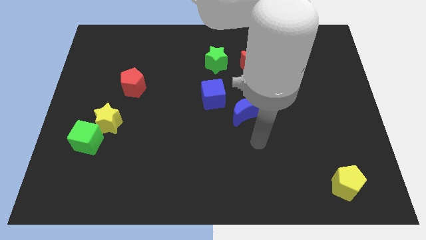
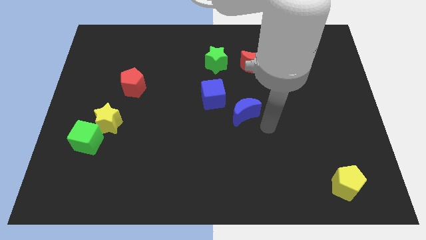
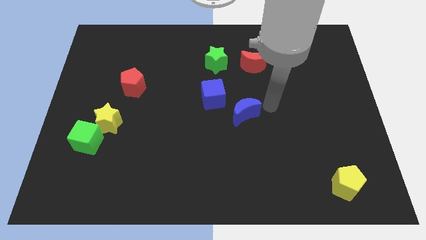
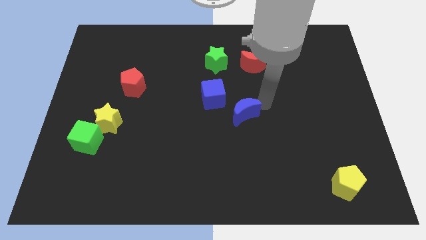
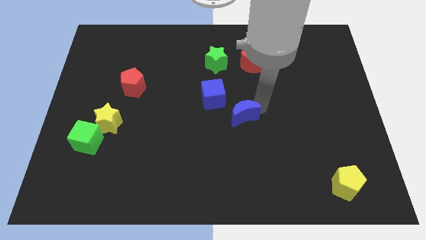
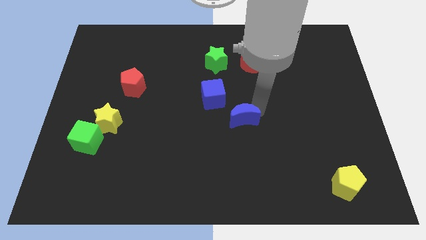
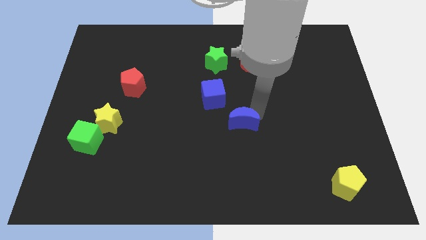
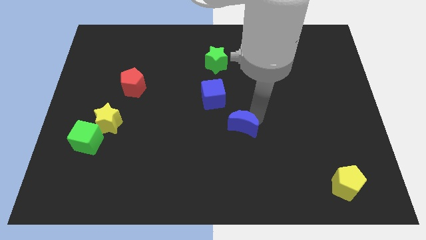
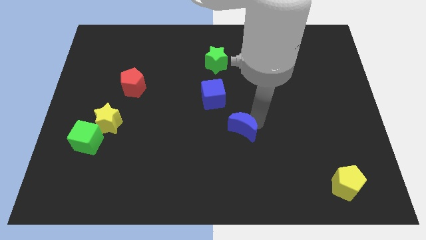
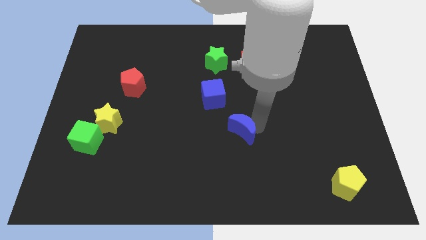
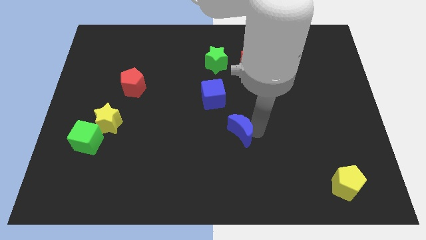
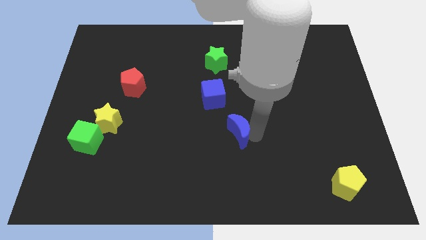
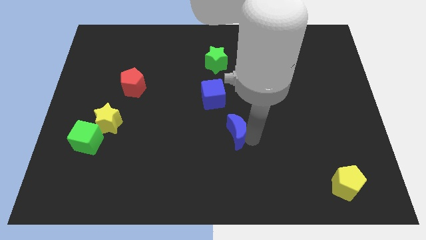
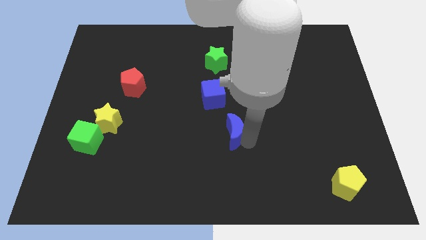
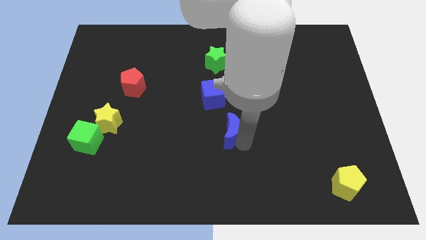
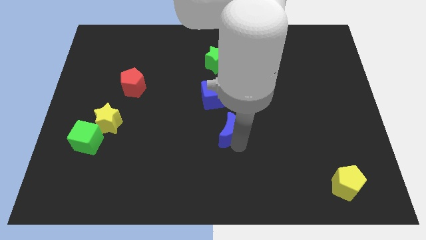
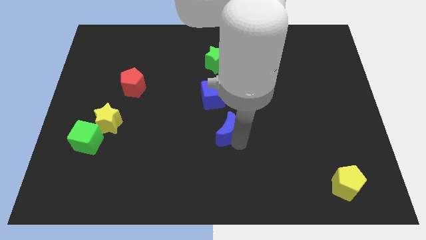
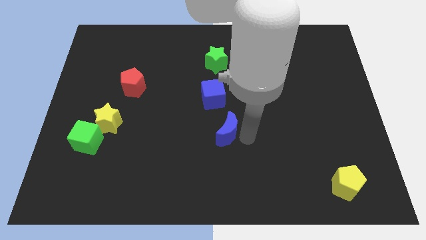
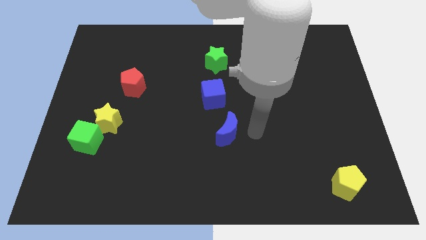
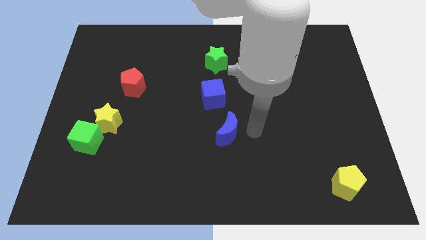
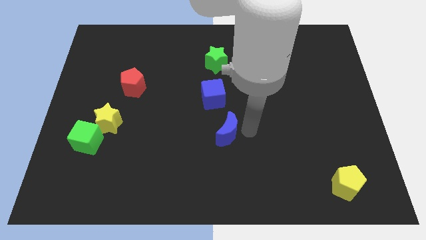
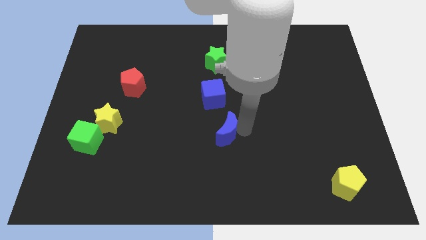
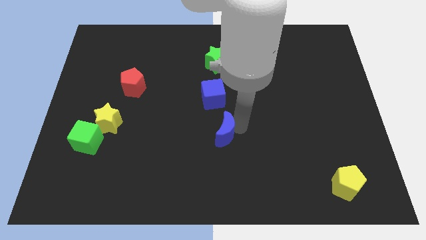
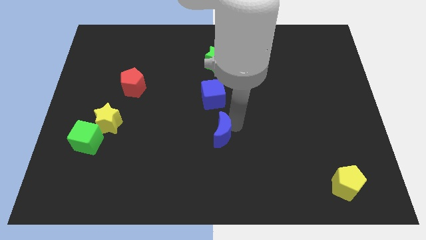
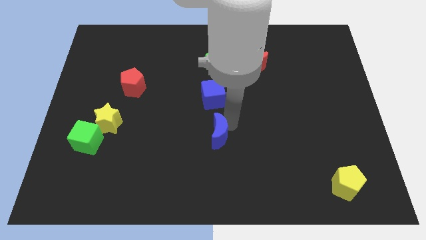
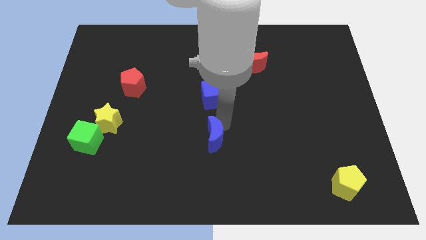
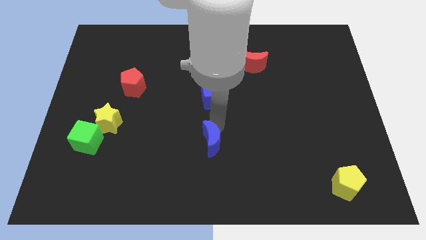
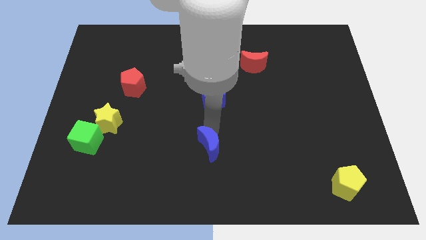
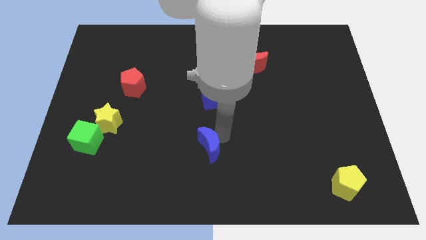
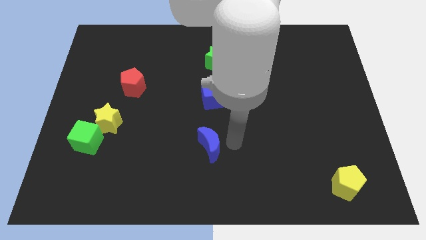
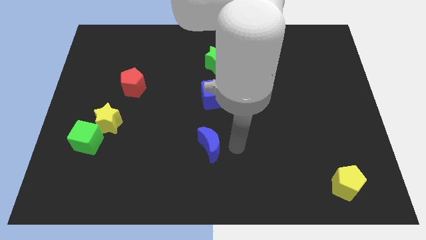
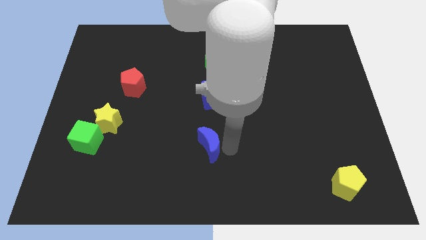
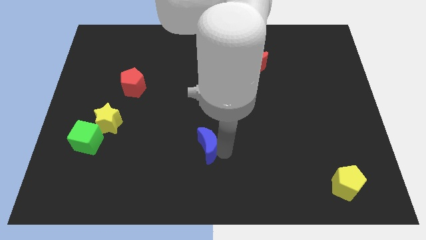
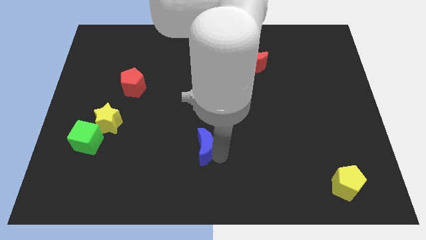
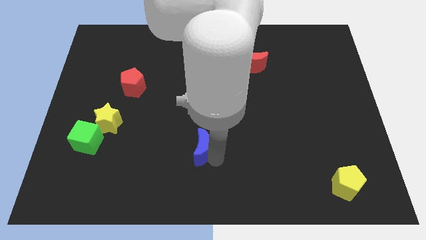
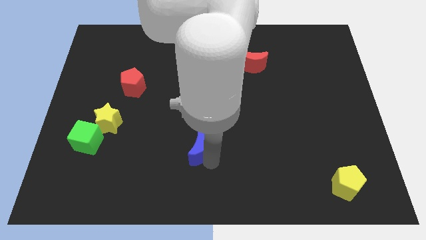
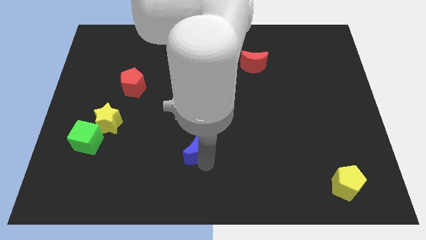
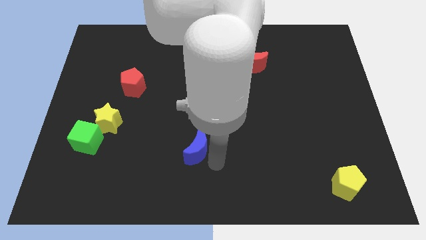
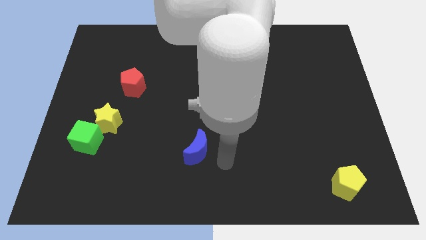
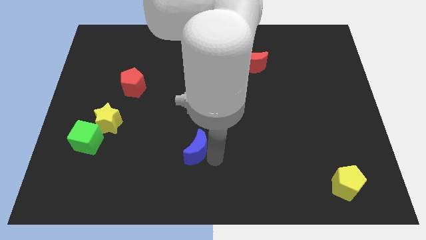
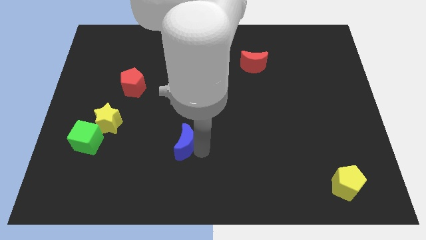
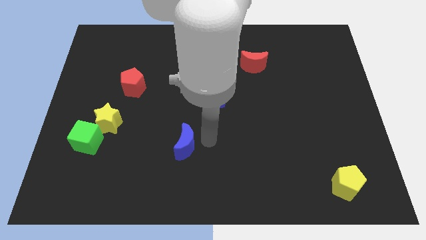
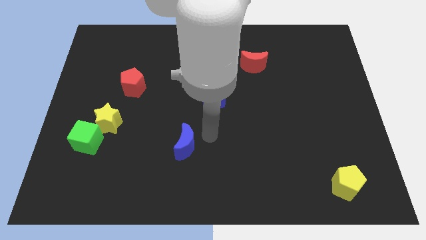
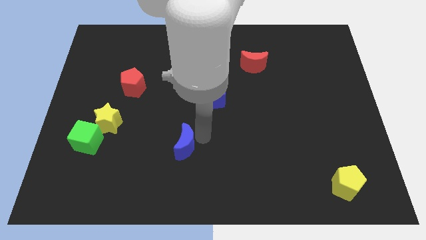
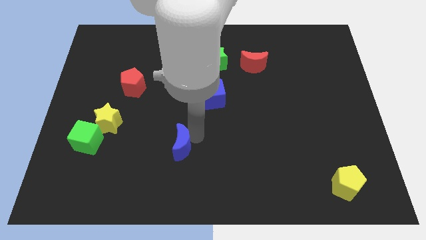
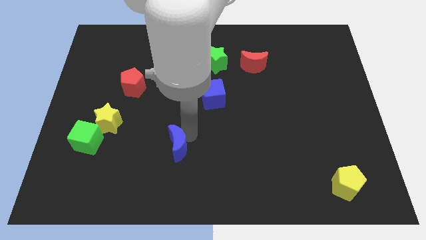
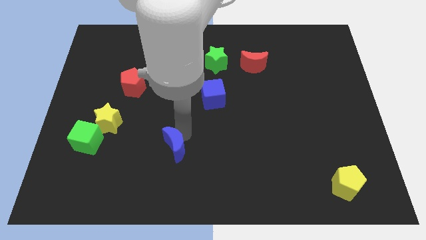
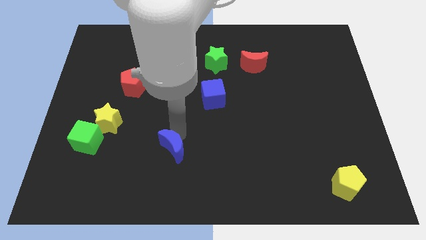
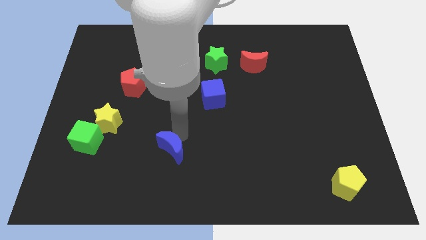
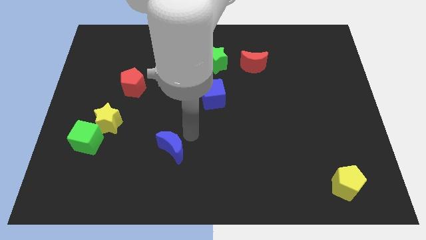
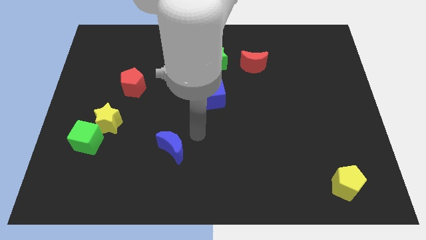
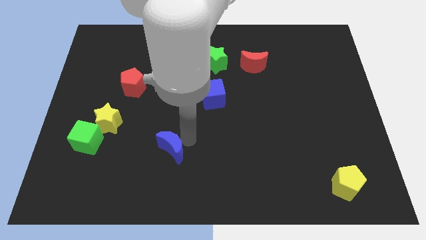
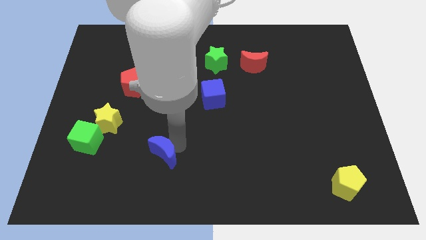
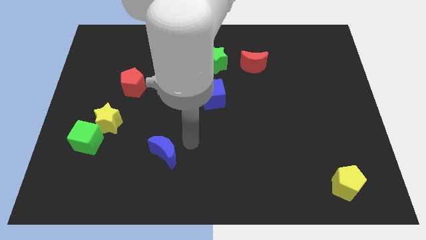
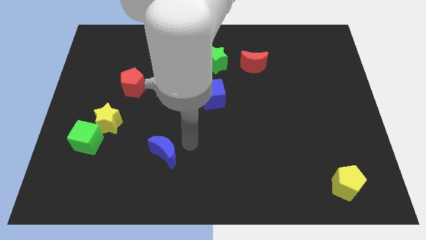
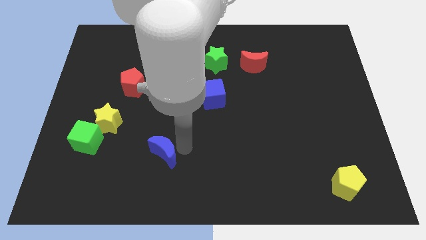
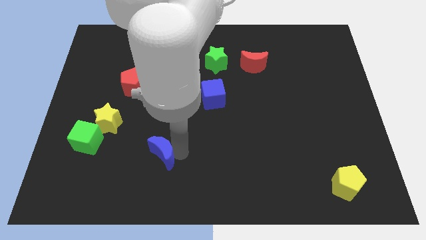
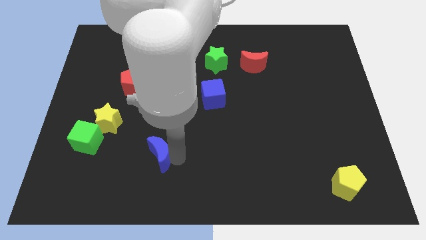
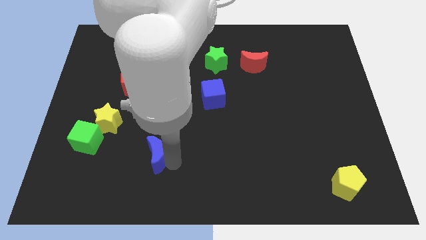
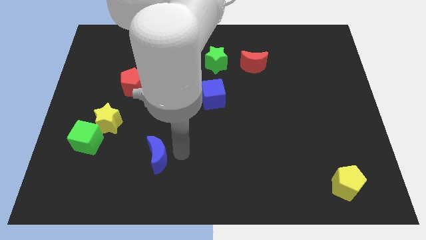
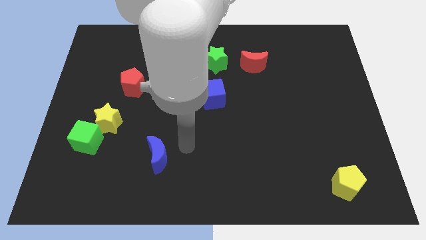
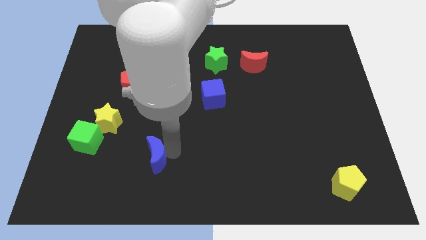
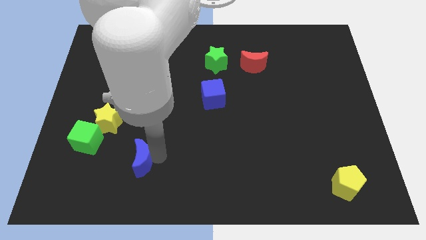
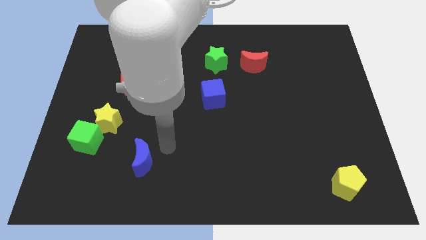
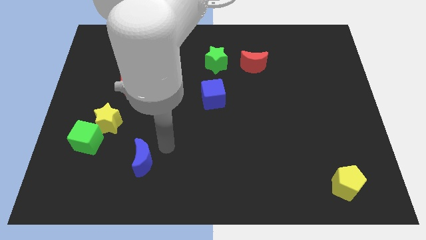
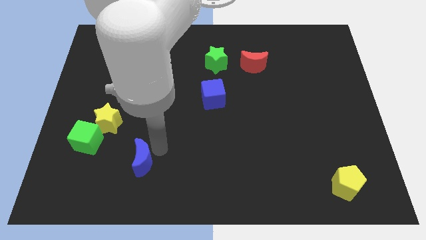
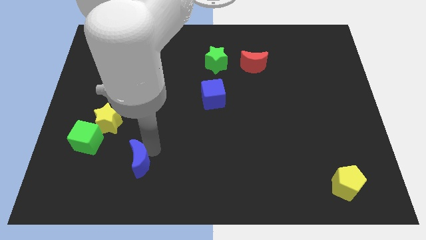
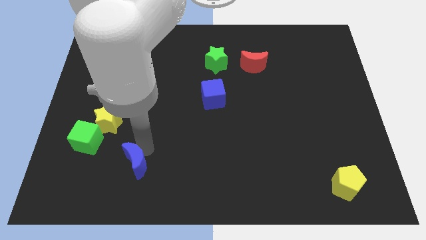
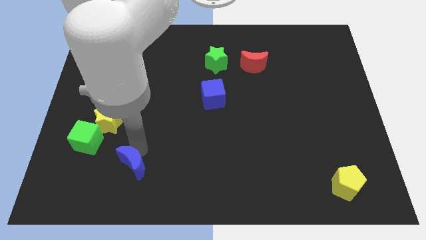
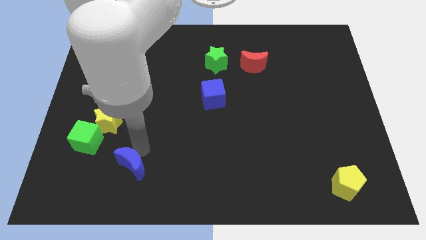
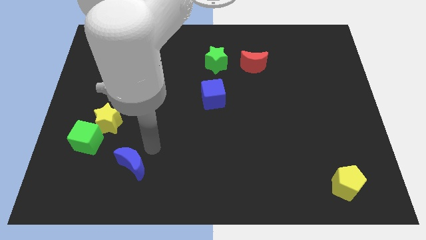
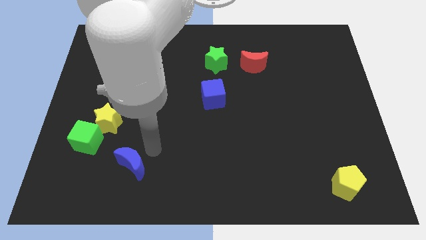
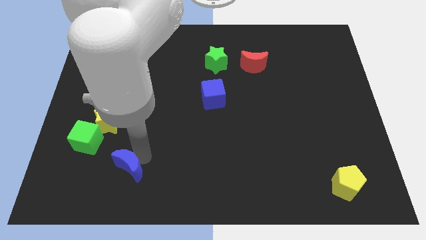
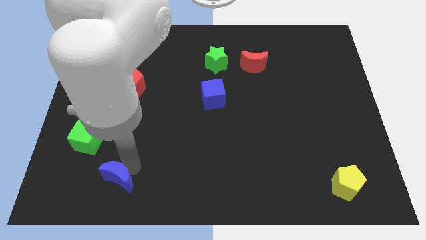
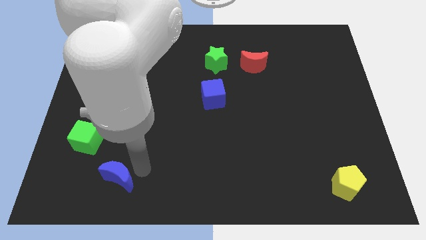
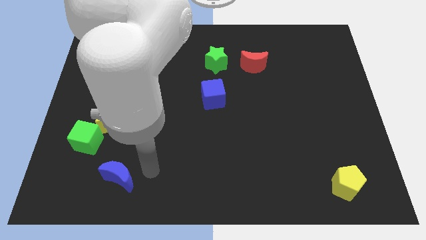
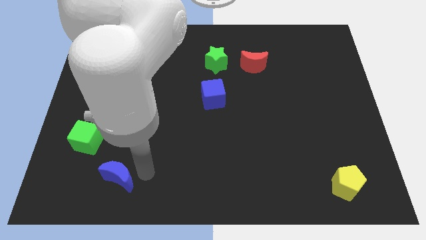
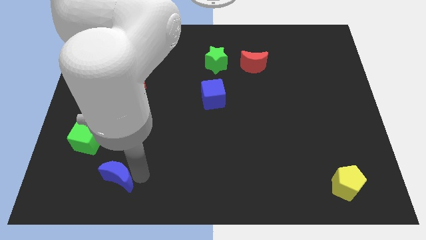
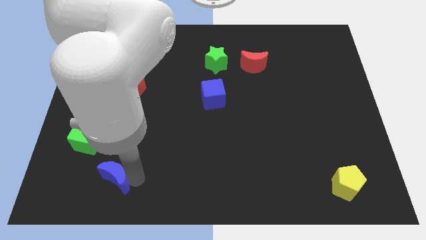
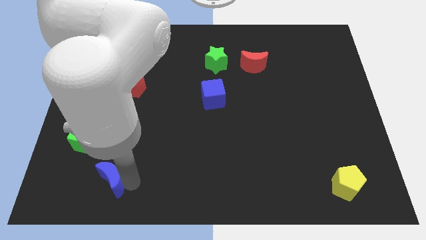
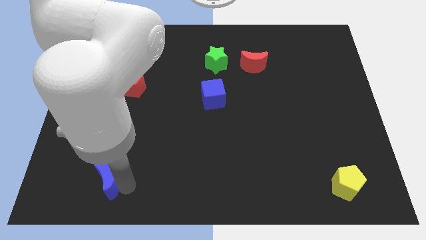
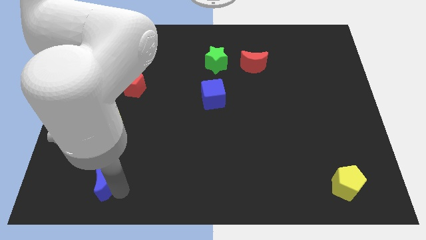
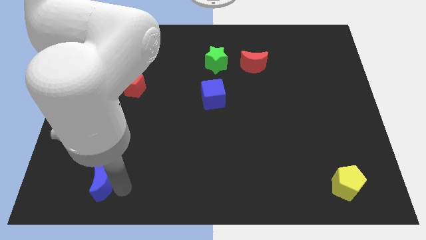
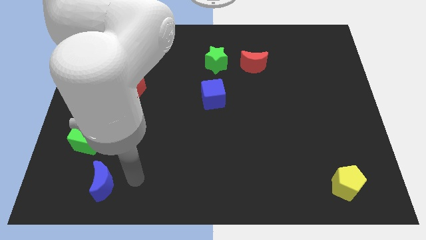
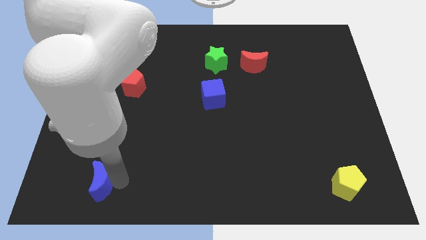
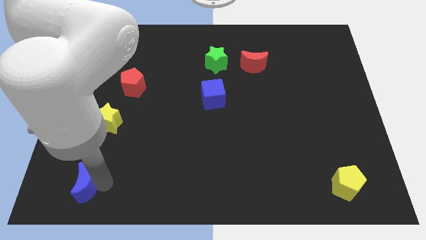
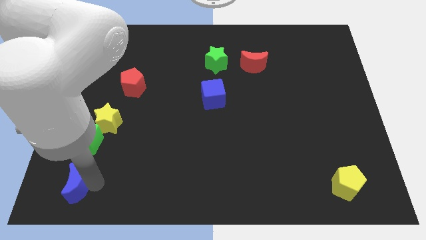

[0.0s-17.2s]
push the blue moon to the bottom left corner
